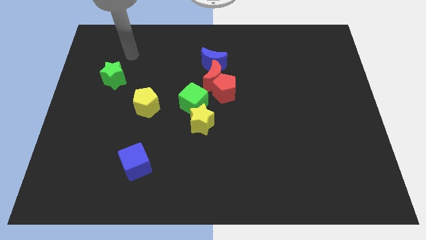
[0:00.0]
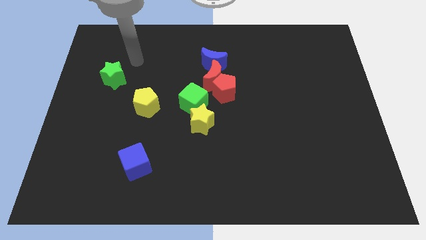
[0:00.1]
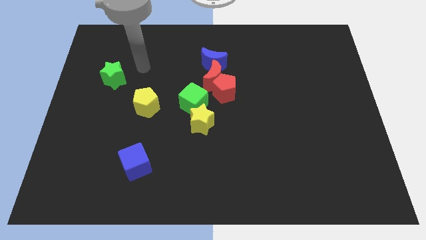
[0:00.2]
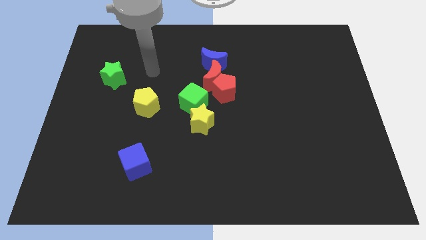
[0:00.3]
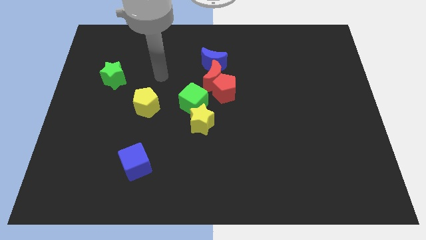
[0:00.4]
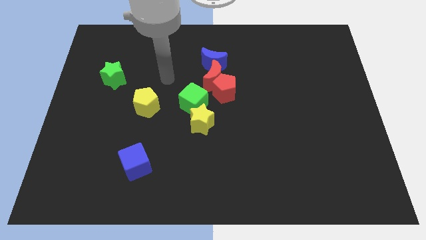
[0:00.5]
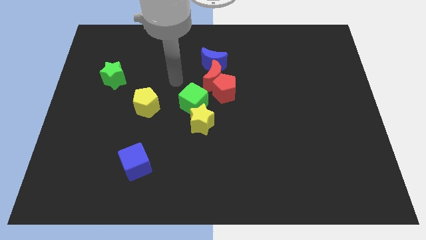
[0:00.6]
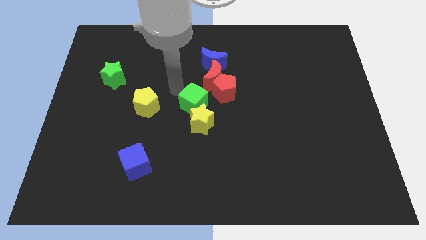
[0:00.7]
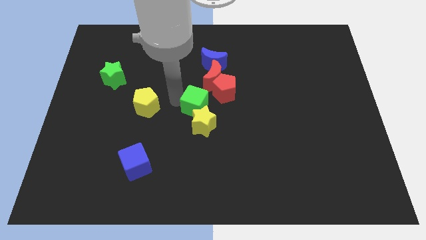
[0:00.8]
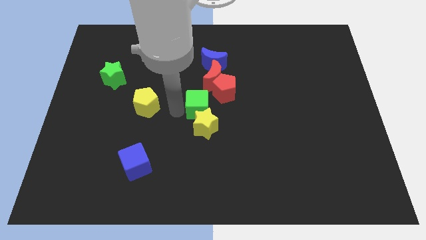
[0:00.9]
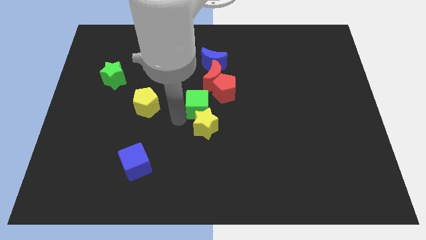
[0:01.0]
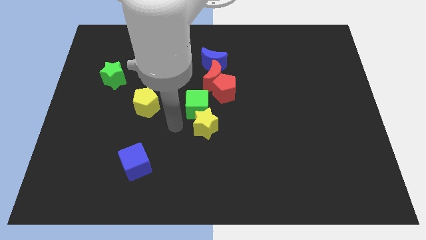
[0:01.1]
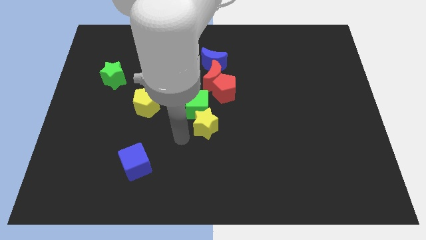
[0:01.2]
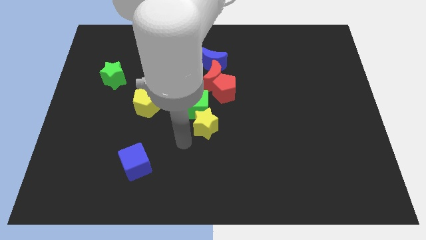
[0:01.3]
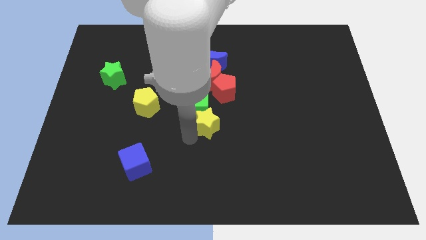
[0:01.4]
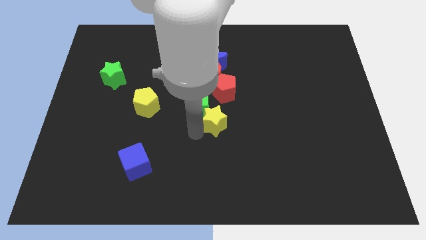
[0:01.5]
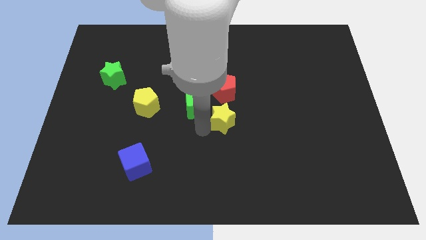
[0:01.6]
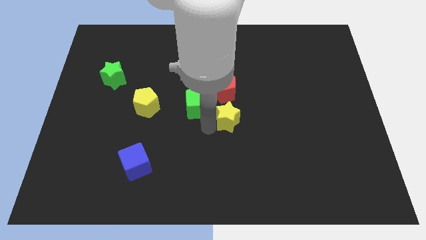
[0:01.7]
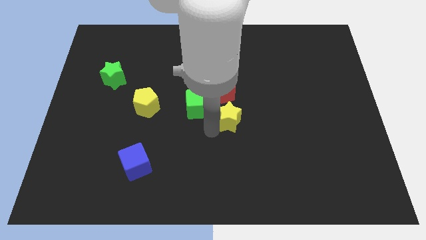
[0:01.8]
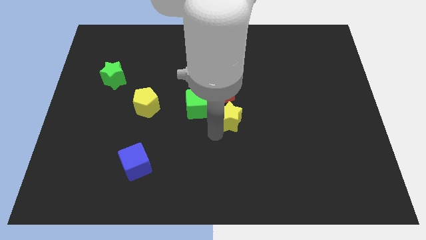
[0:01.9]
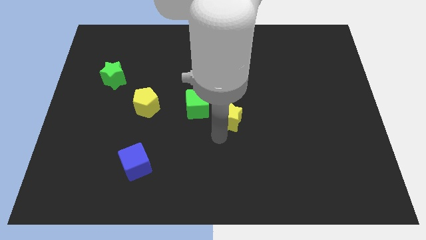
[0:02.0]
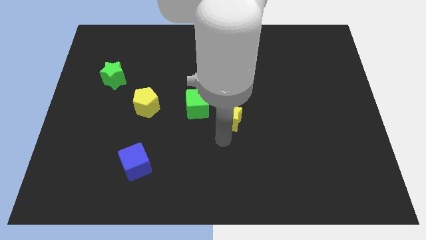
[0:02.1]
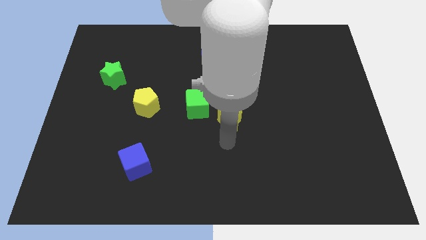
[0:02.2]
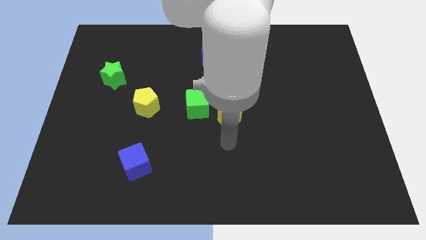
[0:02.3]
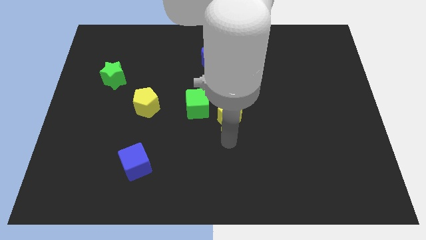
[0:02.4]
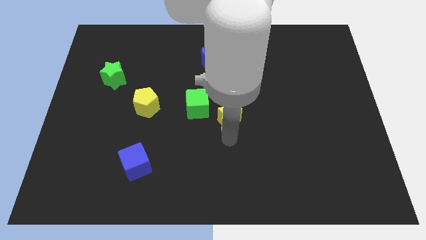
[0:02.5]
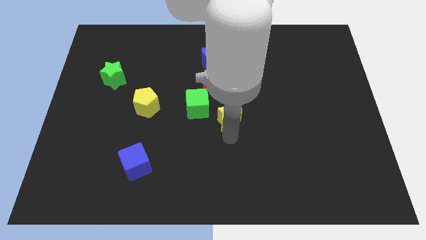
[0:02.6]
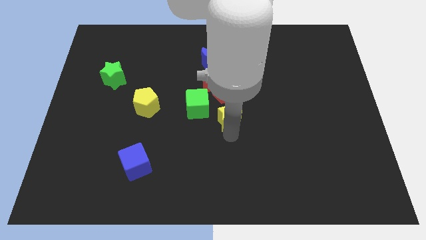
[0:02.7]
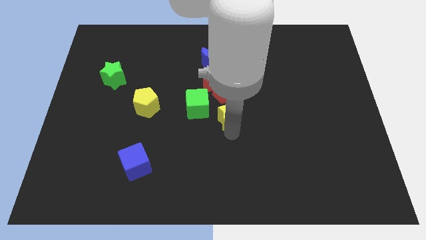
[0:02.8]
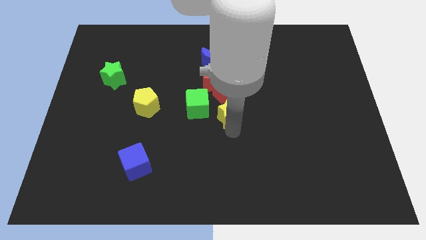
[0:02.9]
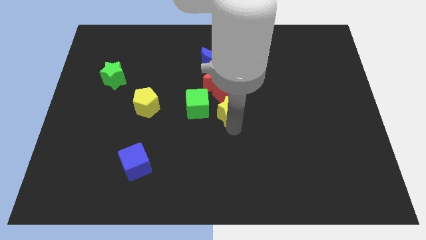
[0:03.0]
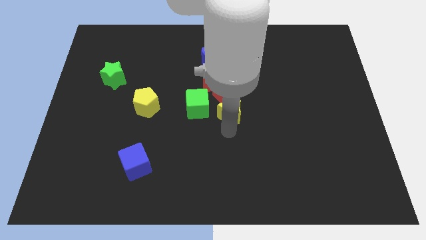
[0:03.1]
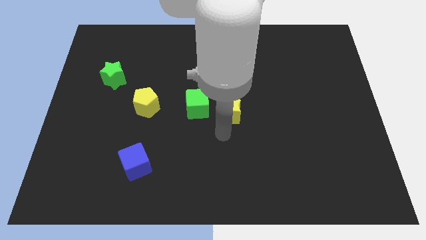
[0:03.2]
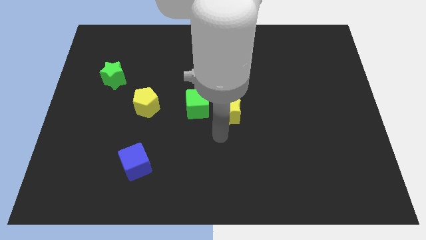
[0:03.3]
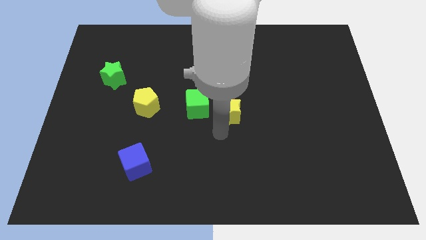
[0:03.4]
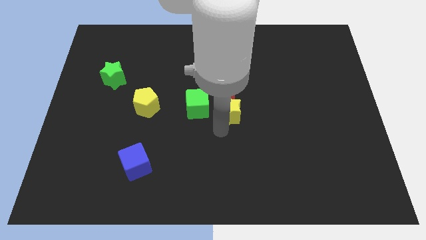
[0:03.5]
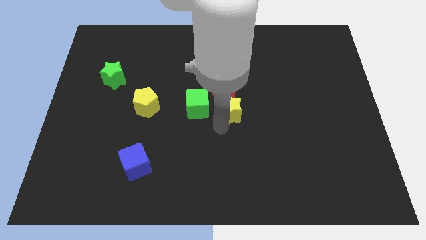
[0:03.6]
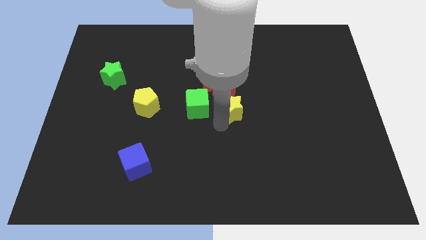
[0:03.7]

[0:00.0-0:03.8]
put the yellow star to the bottom right side of the red moon

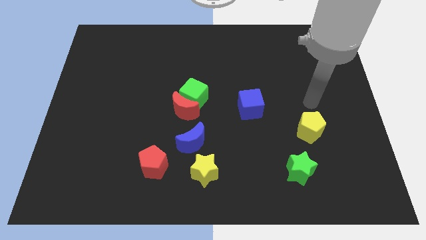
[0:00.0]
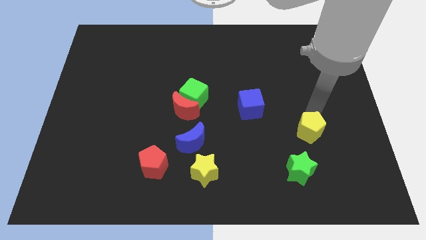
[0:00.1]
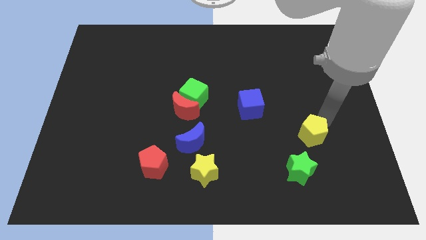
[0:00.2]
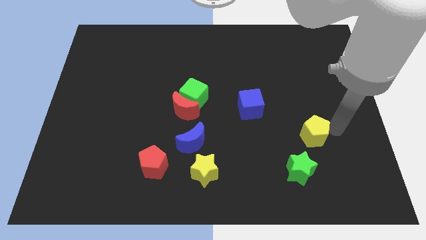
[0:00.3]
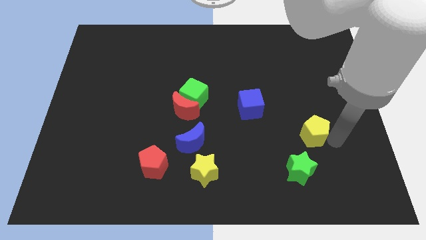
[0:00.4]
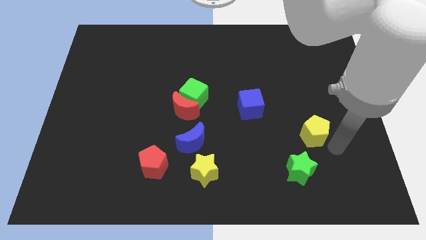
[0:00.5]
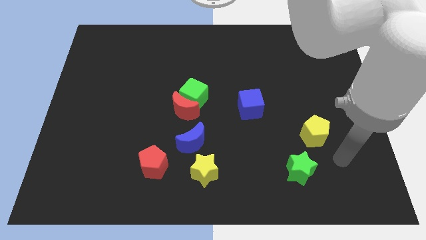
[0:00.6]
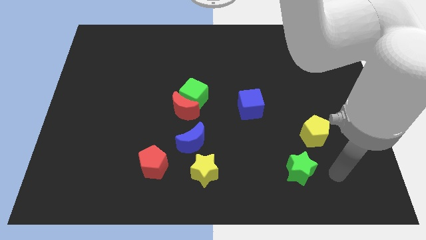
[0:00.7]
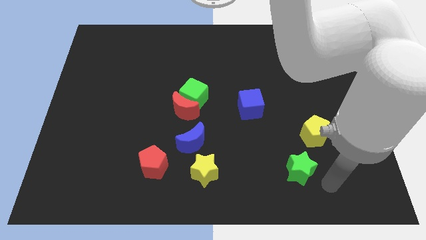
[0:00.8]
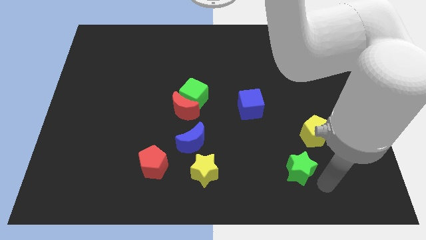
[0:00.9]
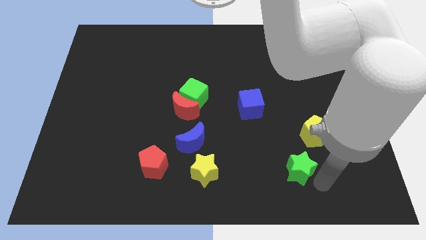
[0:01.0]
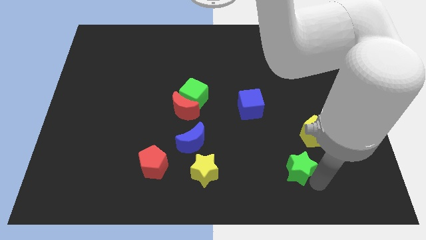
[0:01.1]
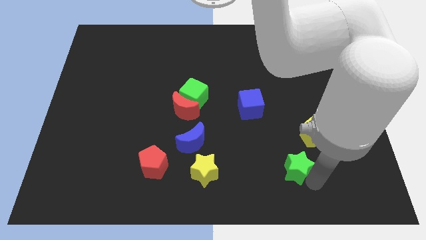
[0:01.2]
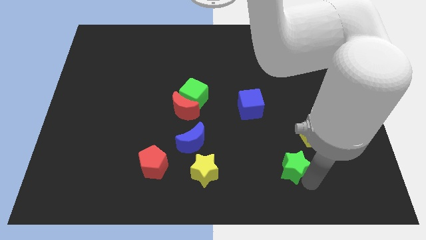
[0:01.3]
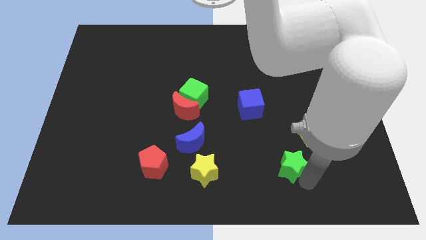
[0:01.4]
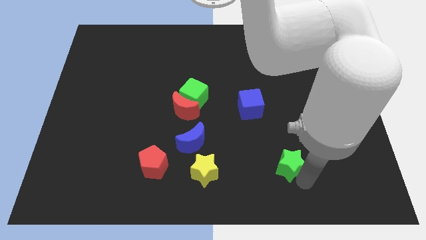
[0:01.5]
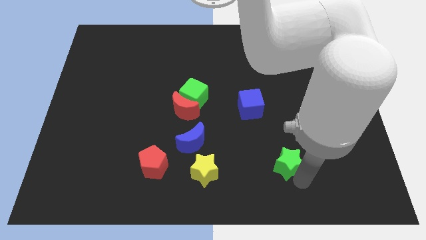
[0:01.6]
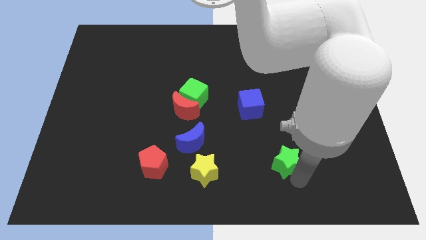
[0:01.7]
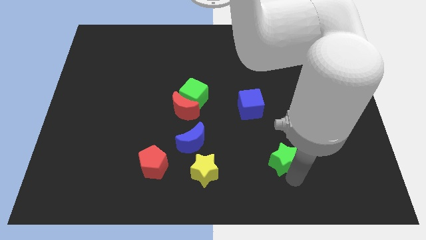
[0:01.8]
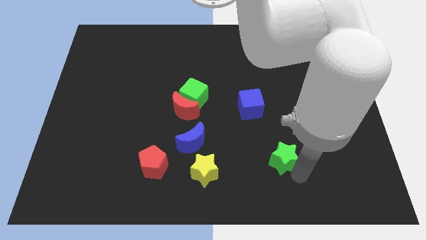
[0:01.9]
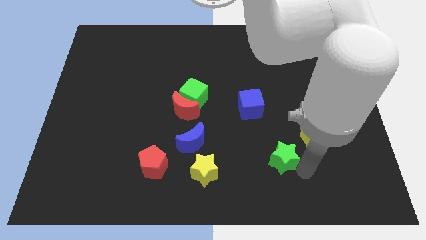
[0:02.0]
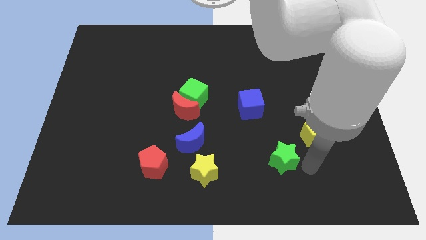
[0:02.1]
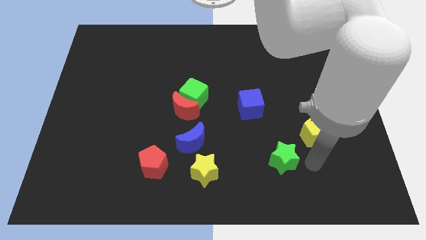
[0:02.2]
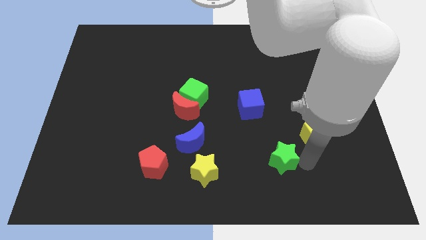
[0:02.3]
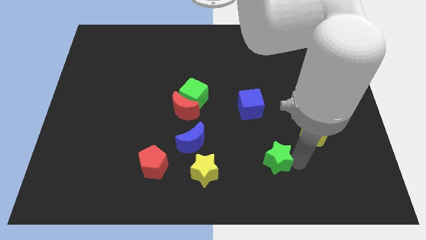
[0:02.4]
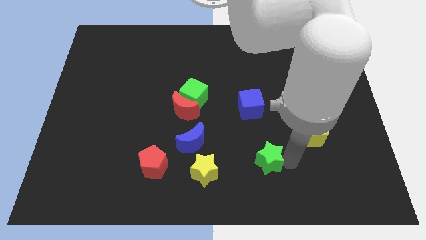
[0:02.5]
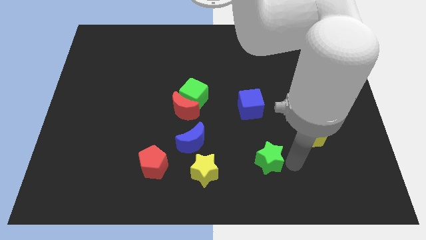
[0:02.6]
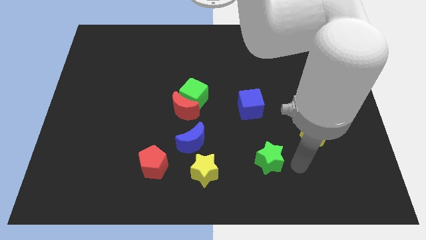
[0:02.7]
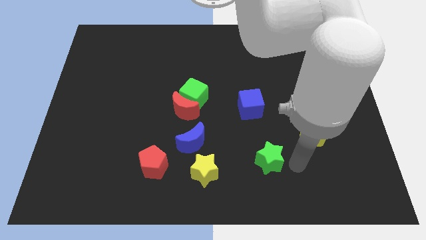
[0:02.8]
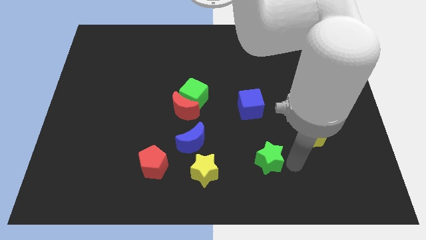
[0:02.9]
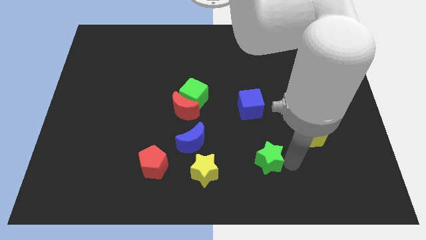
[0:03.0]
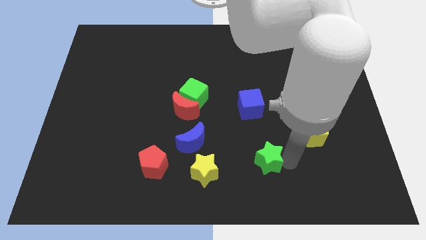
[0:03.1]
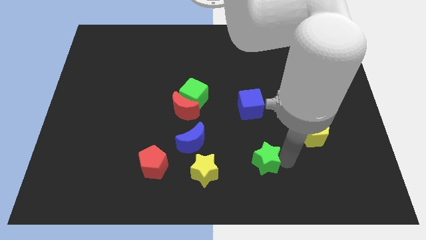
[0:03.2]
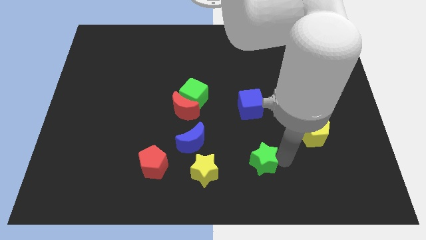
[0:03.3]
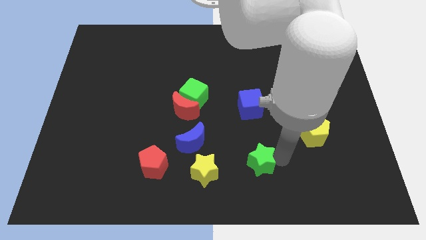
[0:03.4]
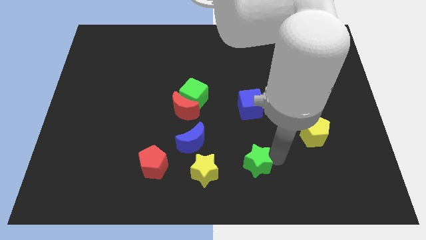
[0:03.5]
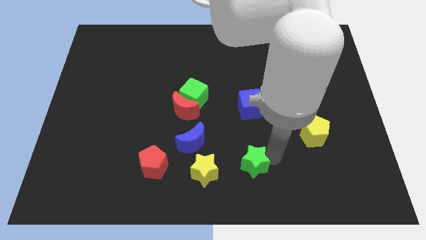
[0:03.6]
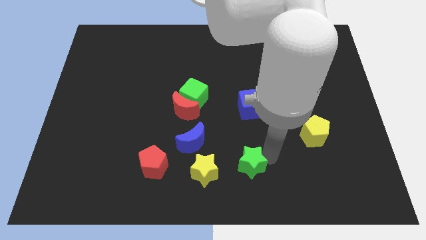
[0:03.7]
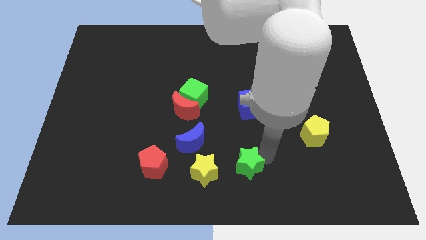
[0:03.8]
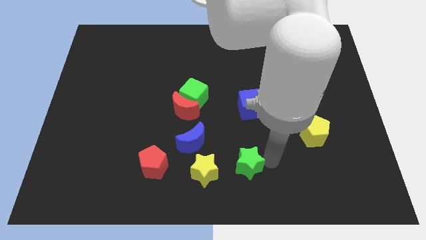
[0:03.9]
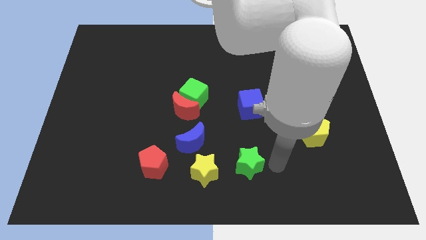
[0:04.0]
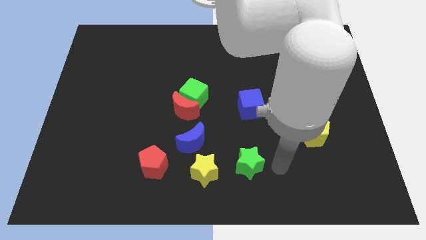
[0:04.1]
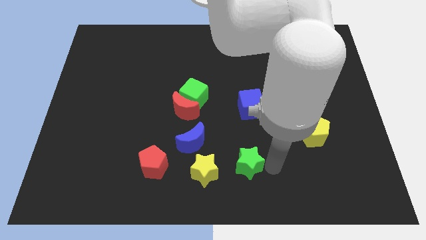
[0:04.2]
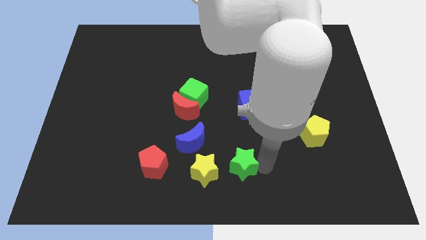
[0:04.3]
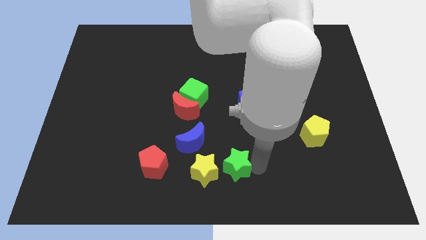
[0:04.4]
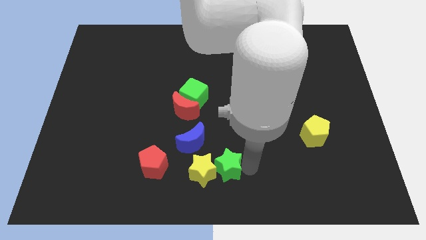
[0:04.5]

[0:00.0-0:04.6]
put the green star right of the red pentagon

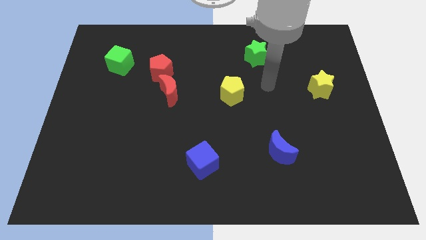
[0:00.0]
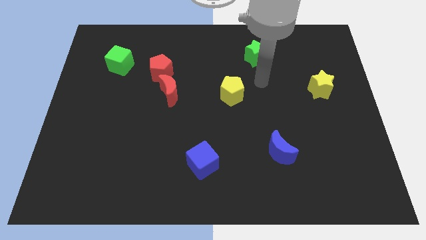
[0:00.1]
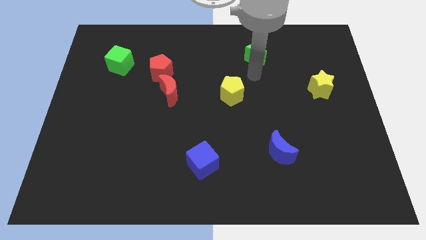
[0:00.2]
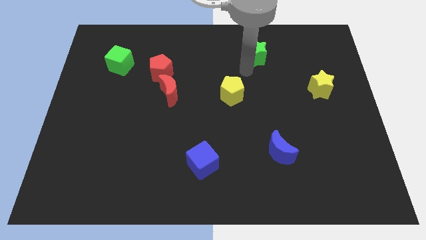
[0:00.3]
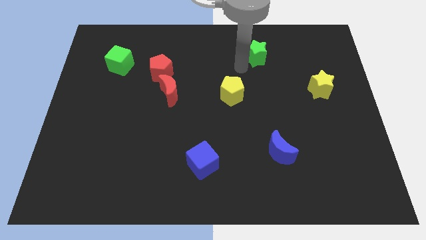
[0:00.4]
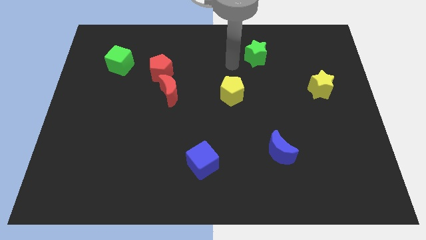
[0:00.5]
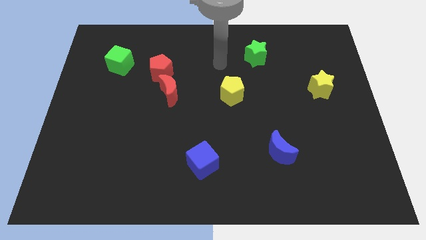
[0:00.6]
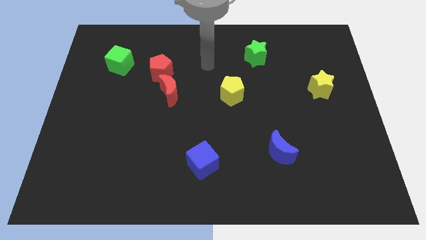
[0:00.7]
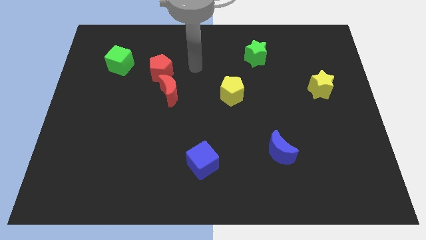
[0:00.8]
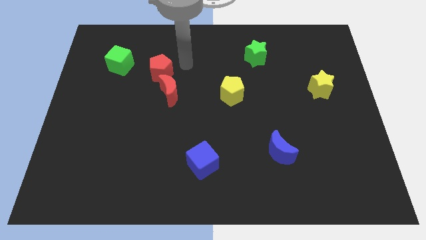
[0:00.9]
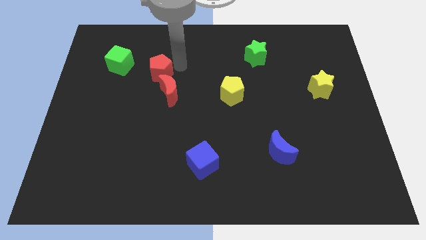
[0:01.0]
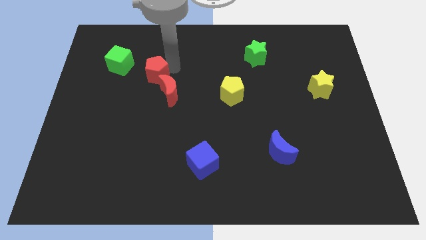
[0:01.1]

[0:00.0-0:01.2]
move the red pentagon diagonally down and to the right of the green cube
